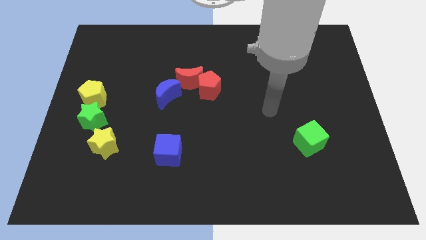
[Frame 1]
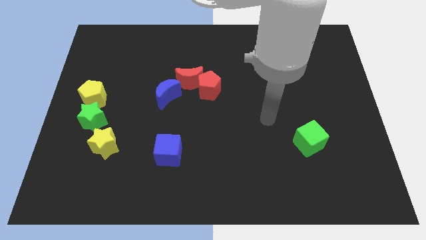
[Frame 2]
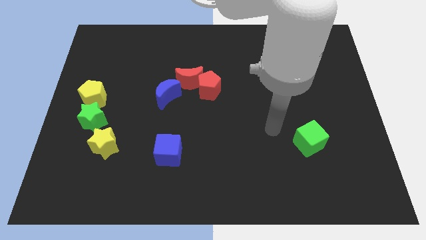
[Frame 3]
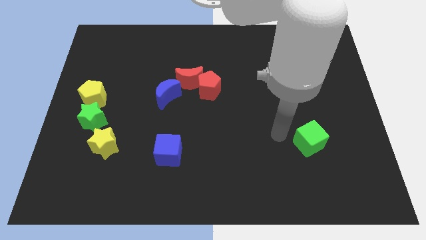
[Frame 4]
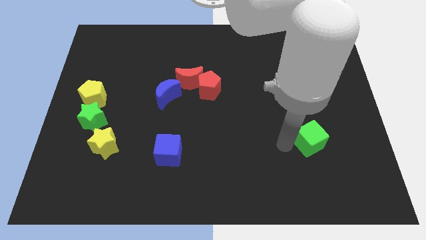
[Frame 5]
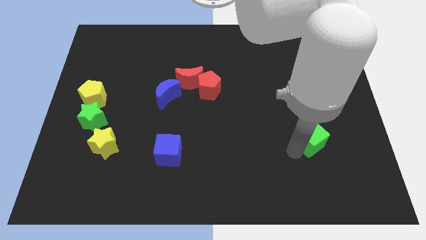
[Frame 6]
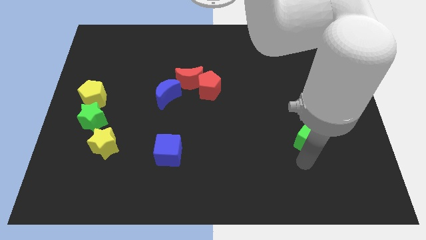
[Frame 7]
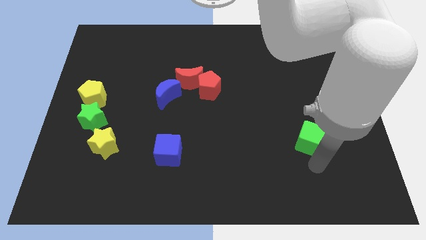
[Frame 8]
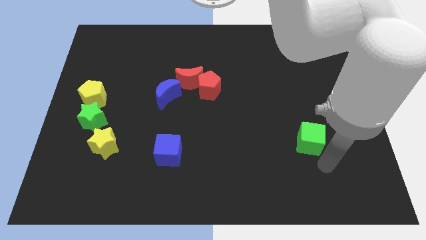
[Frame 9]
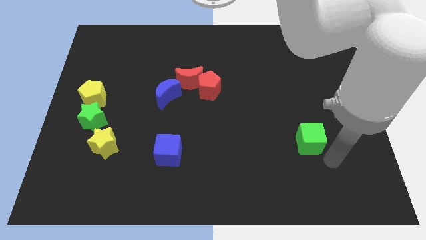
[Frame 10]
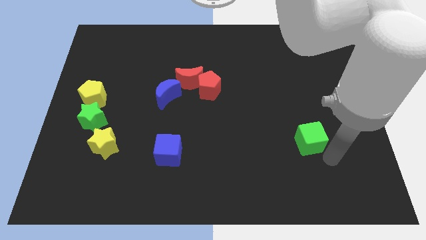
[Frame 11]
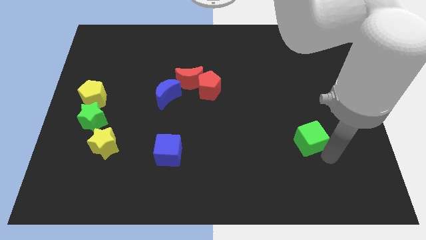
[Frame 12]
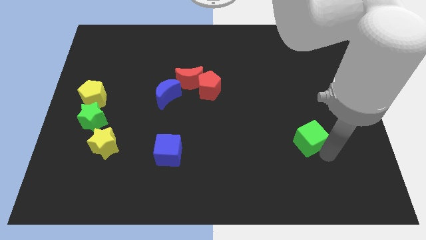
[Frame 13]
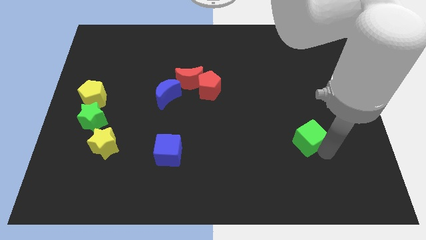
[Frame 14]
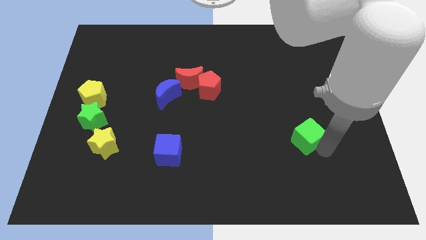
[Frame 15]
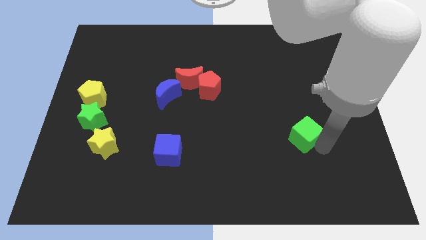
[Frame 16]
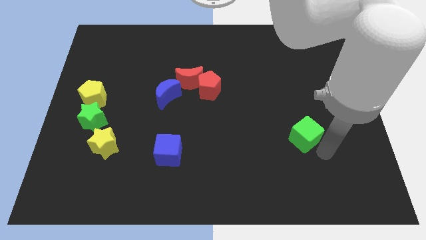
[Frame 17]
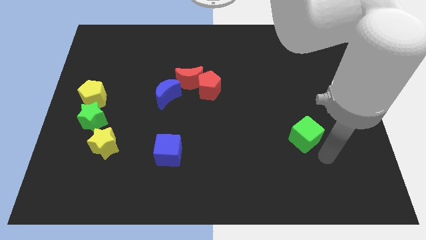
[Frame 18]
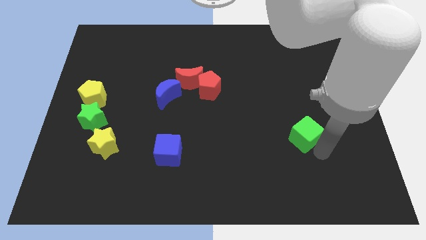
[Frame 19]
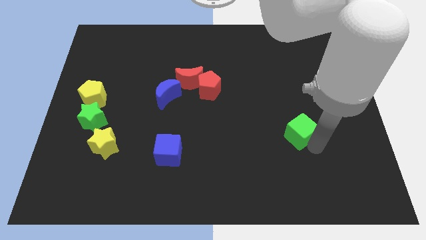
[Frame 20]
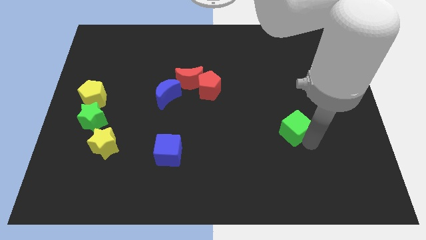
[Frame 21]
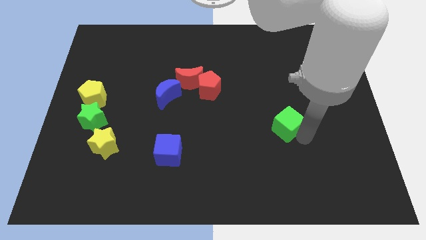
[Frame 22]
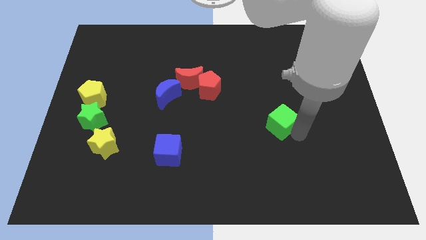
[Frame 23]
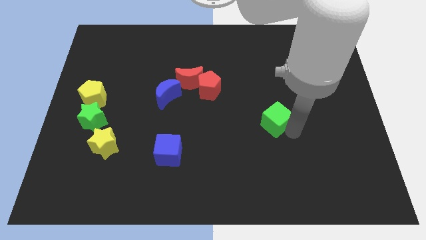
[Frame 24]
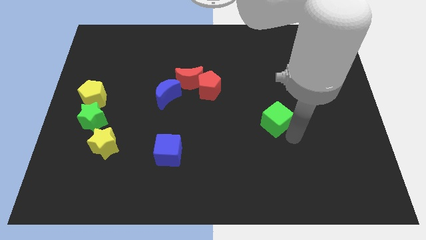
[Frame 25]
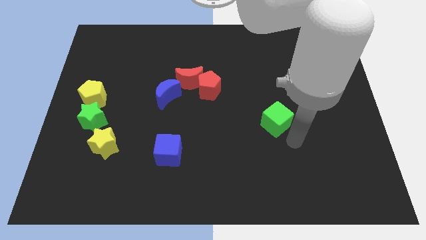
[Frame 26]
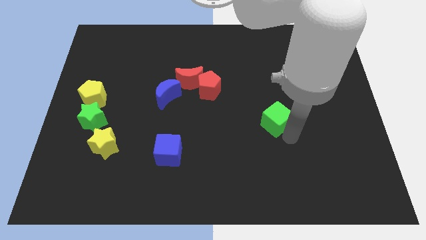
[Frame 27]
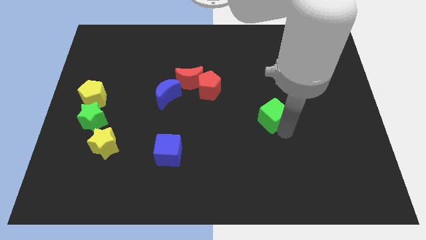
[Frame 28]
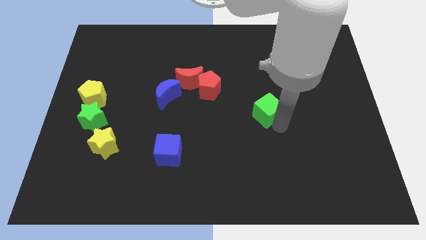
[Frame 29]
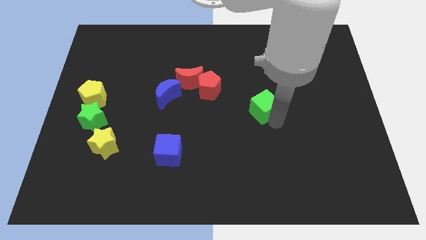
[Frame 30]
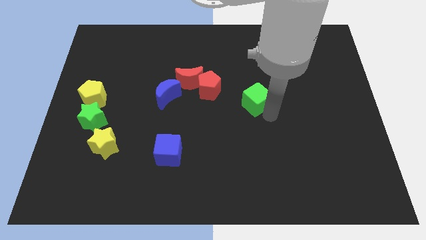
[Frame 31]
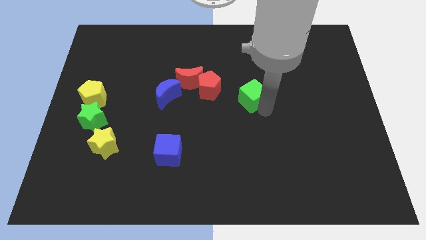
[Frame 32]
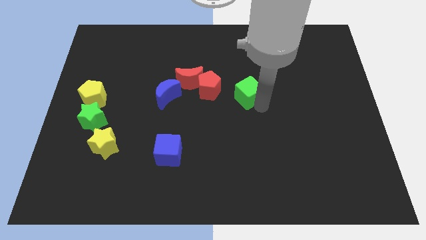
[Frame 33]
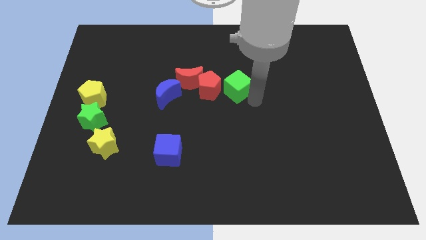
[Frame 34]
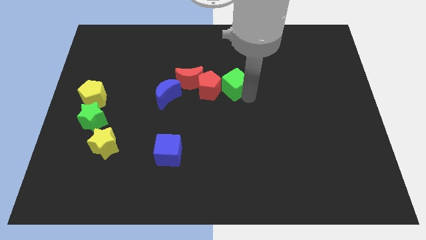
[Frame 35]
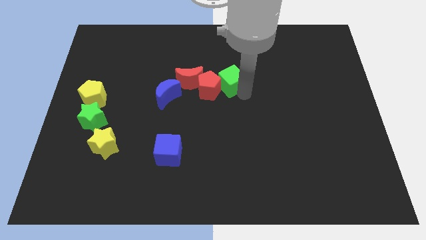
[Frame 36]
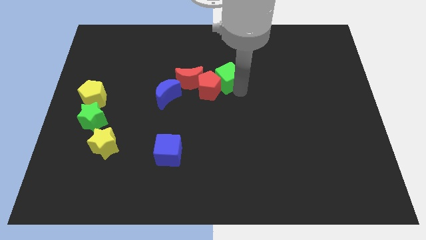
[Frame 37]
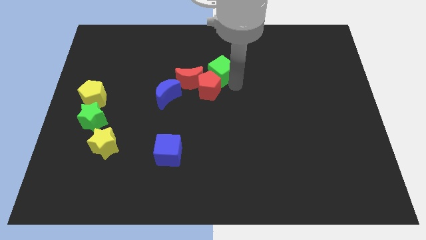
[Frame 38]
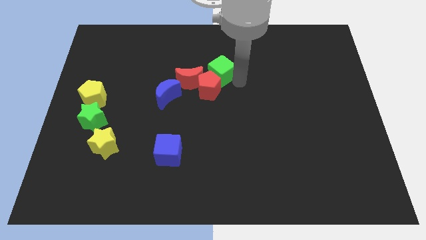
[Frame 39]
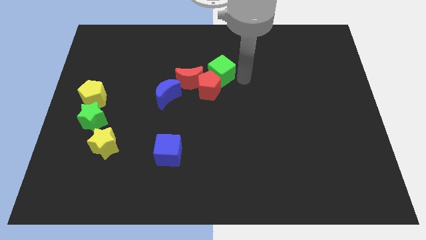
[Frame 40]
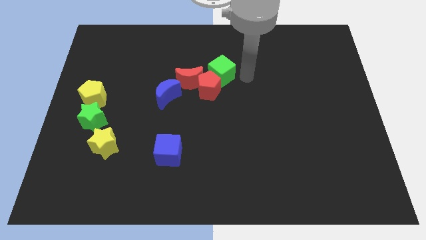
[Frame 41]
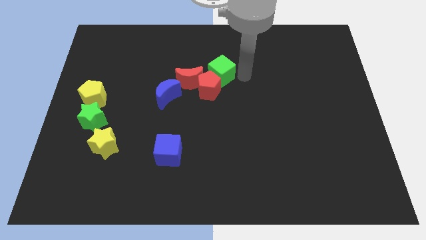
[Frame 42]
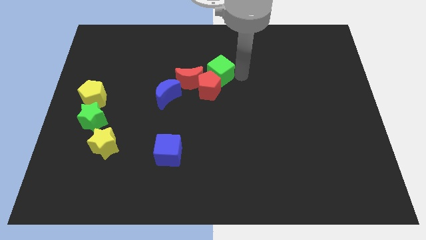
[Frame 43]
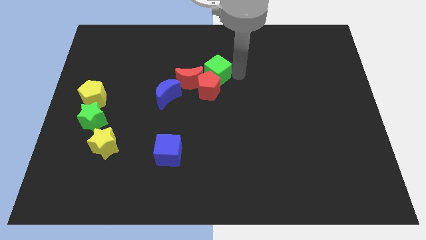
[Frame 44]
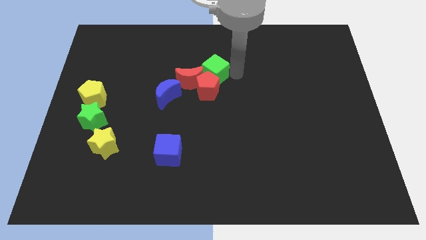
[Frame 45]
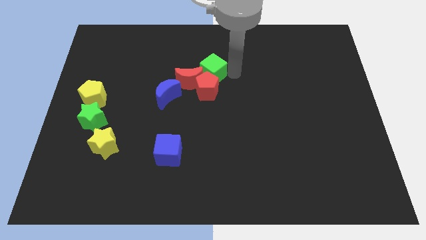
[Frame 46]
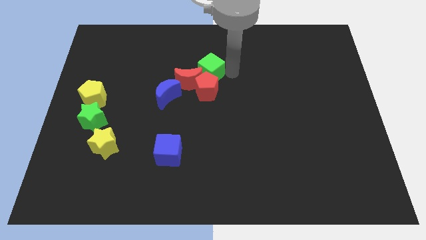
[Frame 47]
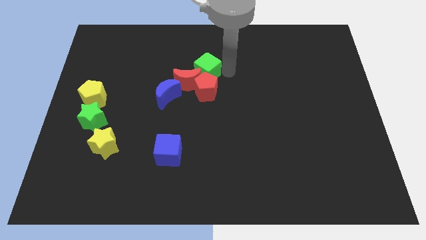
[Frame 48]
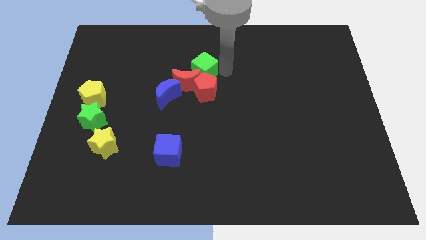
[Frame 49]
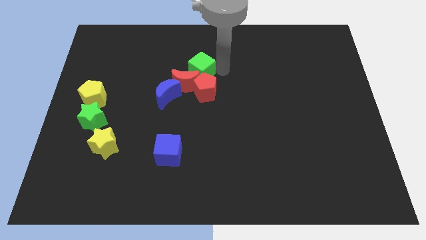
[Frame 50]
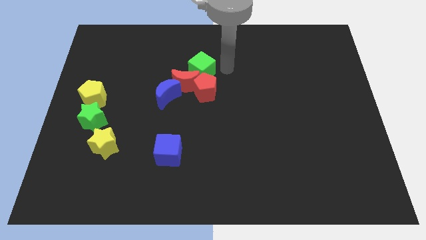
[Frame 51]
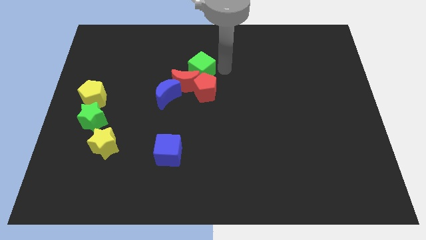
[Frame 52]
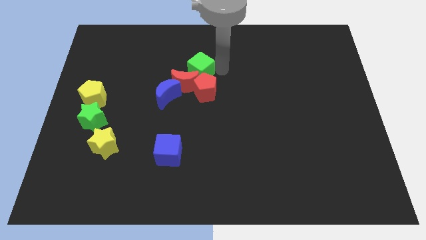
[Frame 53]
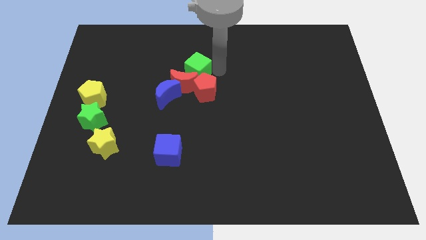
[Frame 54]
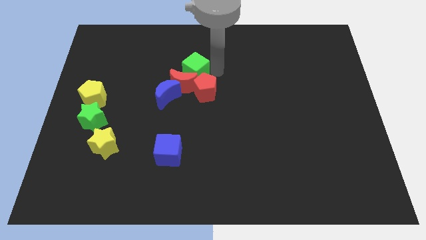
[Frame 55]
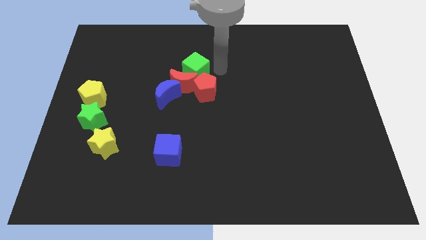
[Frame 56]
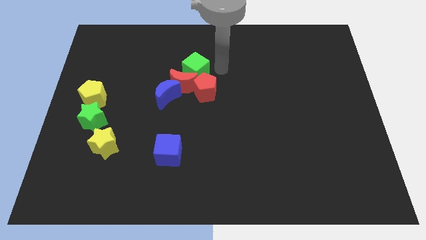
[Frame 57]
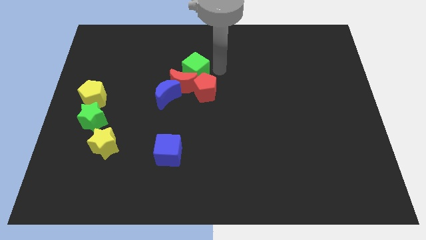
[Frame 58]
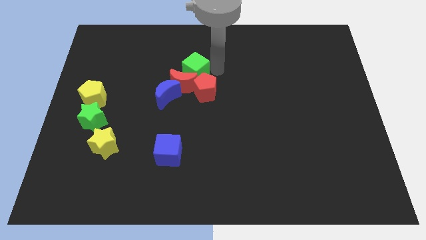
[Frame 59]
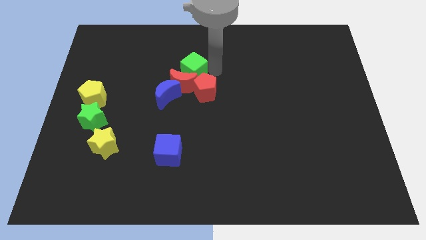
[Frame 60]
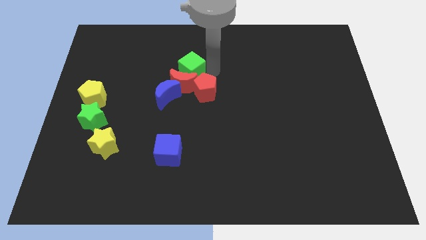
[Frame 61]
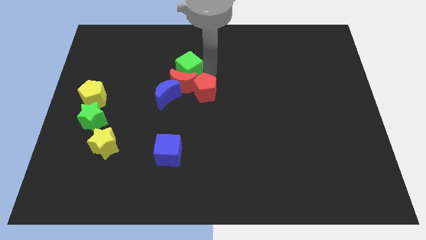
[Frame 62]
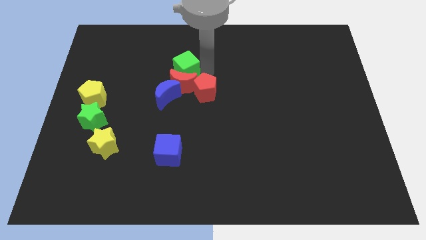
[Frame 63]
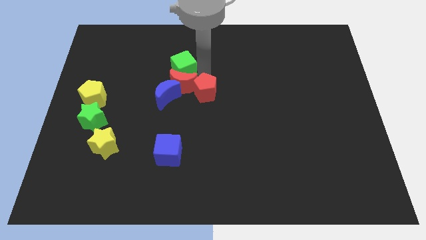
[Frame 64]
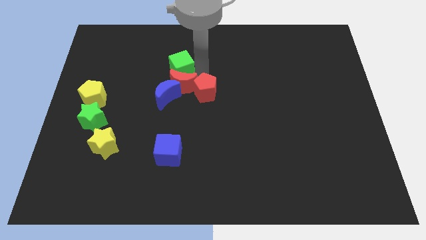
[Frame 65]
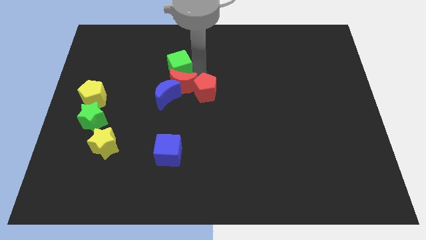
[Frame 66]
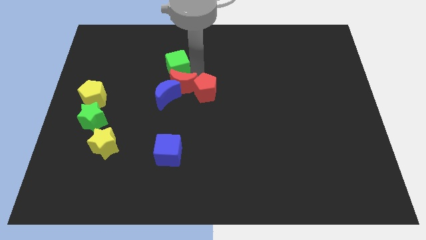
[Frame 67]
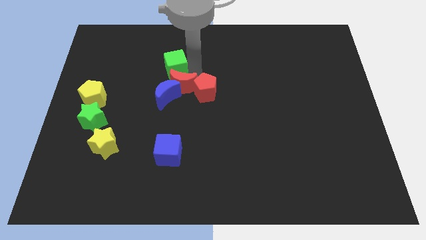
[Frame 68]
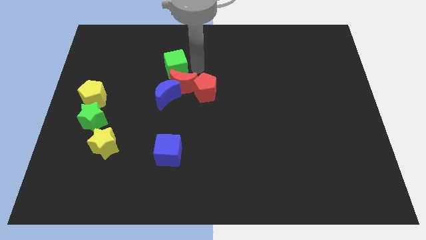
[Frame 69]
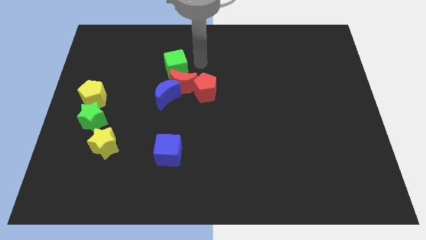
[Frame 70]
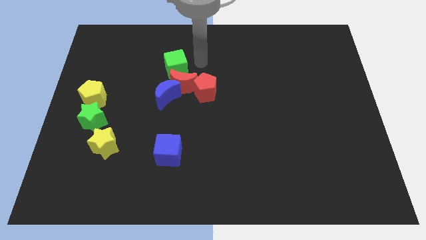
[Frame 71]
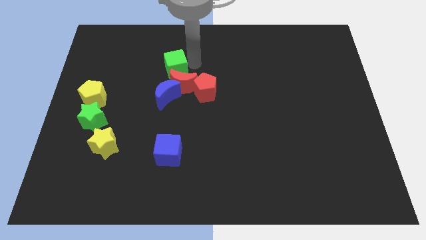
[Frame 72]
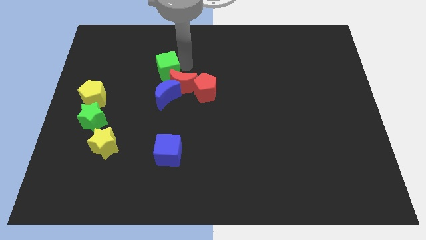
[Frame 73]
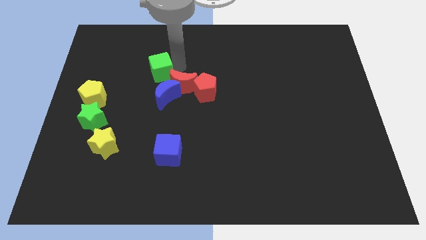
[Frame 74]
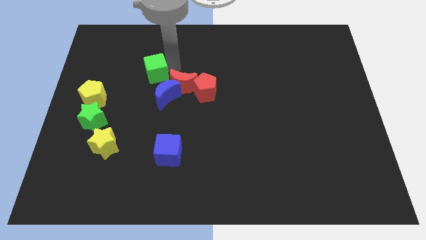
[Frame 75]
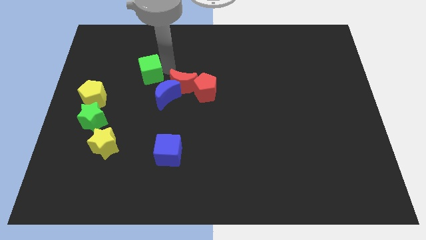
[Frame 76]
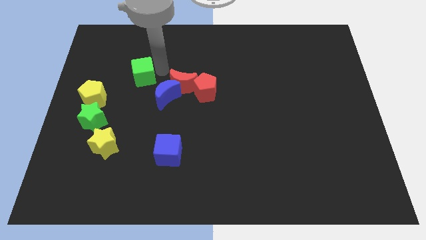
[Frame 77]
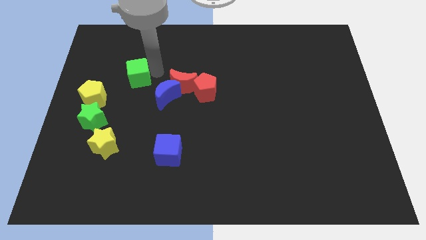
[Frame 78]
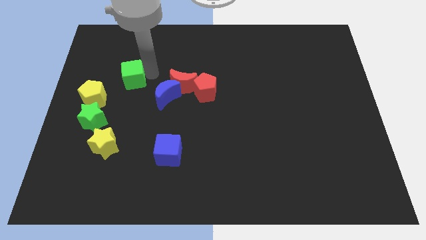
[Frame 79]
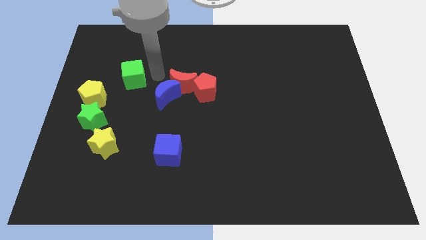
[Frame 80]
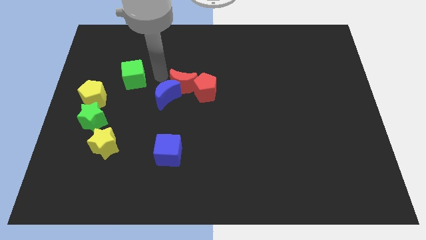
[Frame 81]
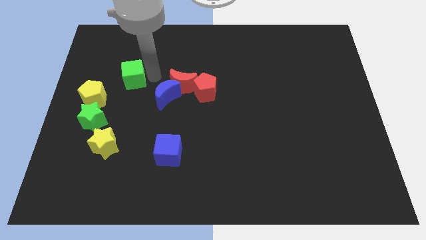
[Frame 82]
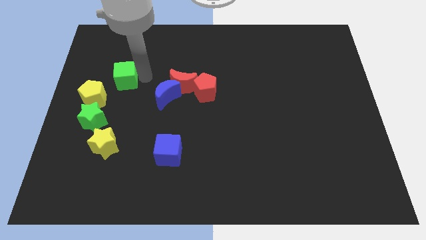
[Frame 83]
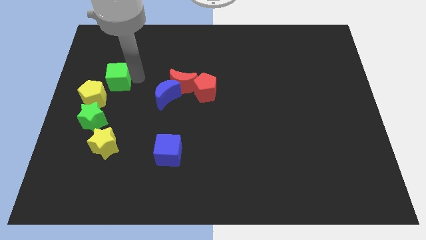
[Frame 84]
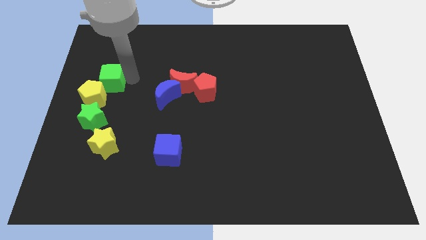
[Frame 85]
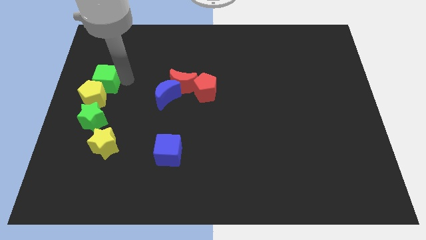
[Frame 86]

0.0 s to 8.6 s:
slide the green cube to the center left
